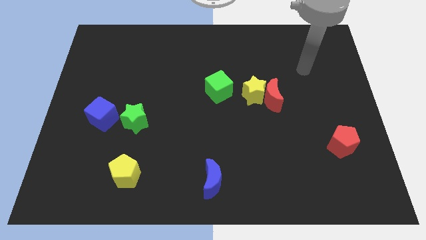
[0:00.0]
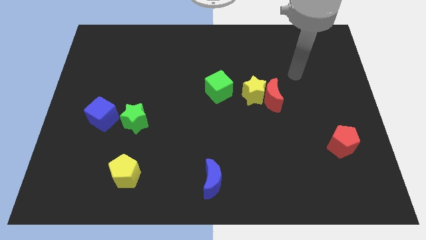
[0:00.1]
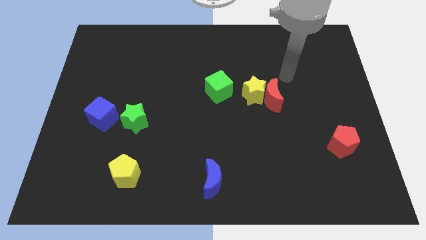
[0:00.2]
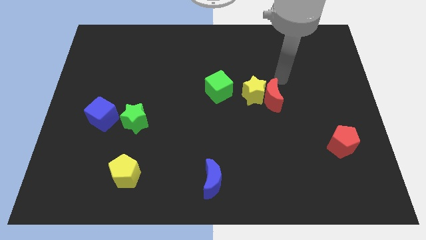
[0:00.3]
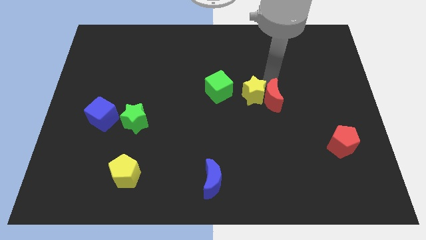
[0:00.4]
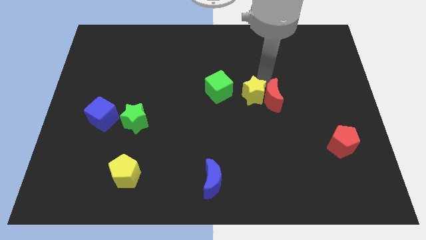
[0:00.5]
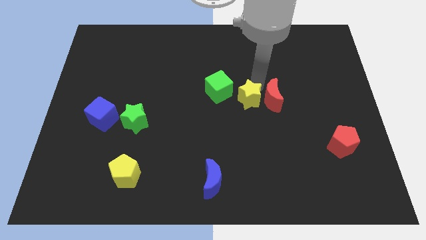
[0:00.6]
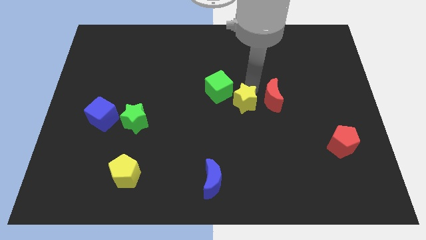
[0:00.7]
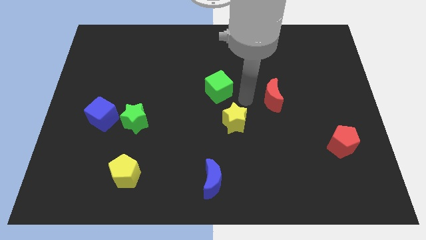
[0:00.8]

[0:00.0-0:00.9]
separate the red moon from the yellow star

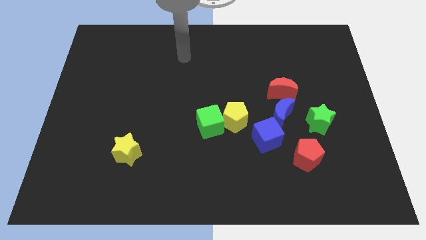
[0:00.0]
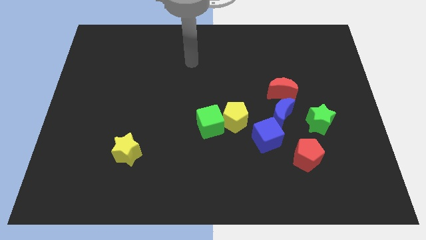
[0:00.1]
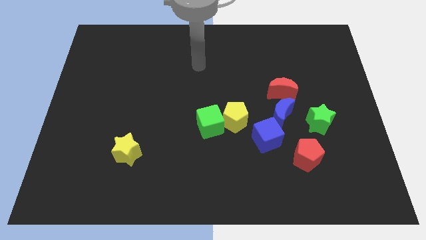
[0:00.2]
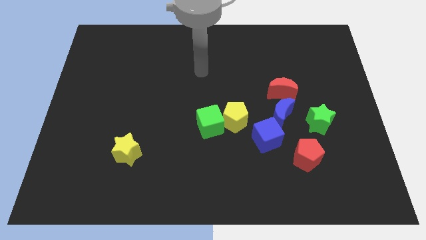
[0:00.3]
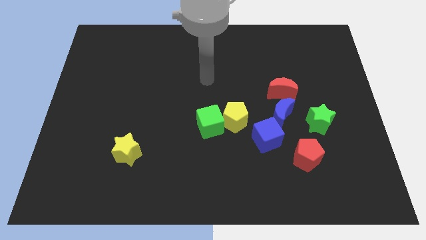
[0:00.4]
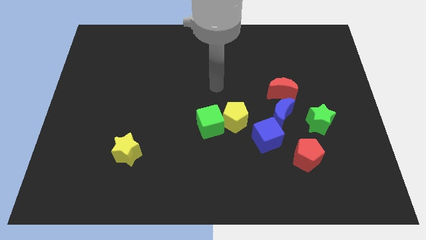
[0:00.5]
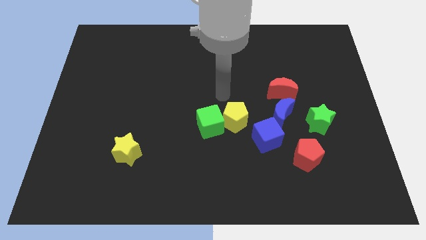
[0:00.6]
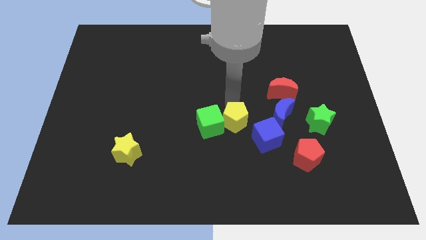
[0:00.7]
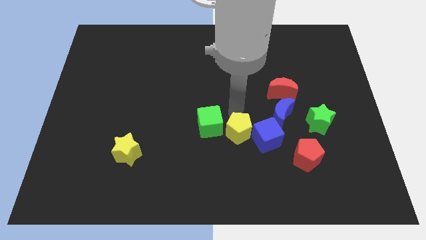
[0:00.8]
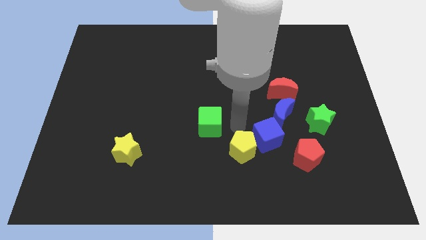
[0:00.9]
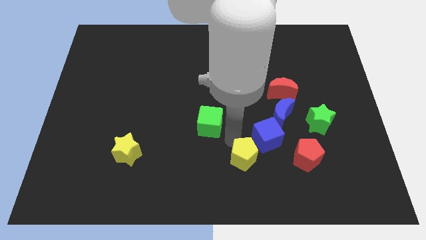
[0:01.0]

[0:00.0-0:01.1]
separate the green cube from the yellow pentagon

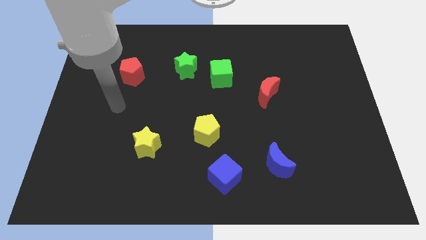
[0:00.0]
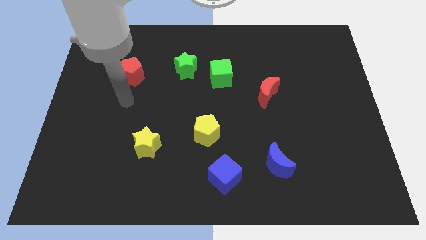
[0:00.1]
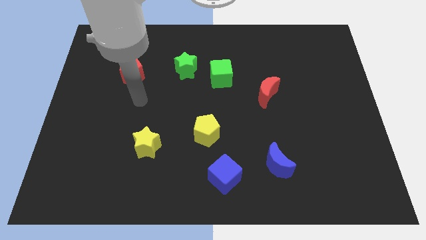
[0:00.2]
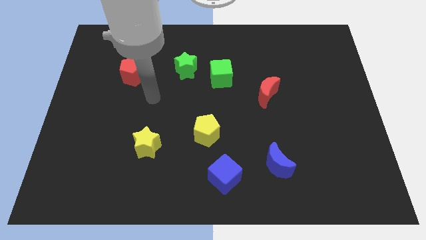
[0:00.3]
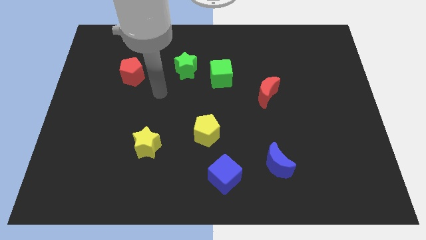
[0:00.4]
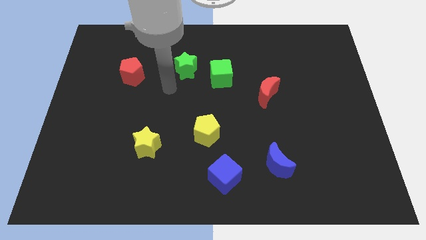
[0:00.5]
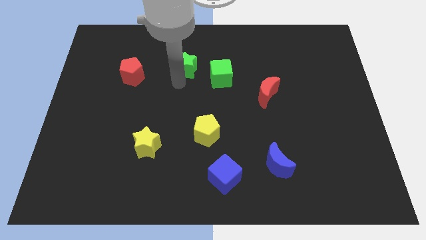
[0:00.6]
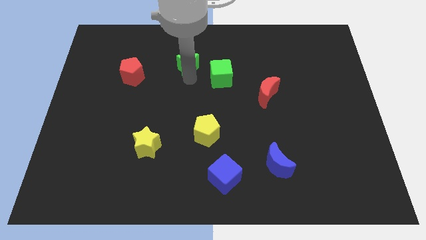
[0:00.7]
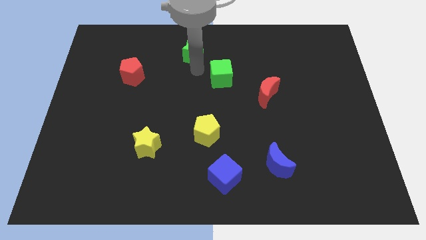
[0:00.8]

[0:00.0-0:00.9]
separate the green cube from the green star

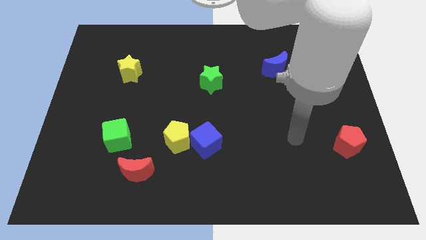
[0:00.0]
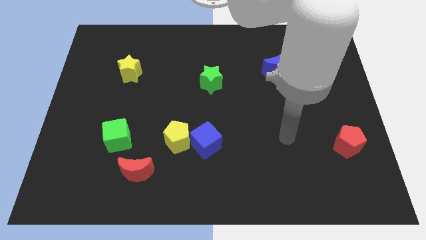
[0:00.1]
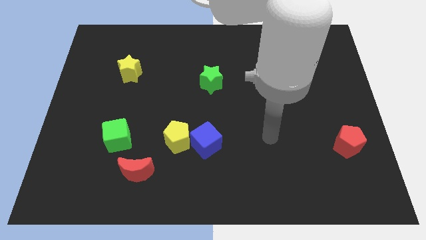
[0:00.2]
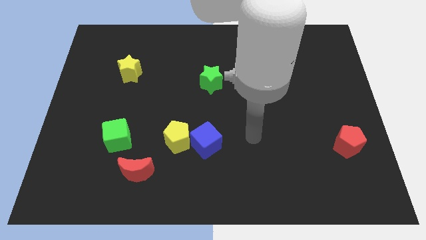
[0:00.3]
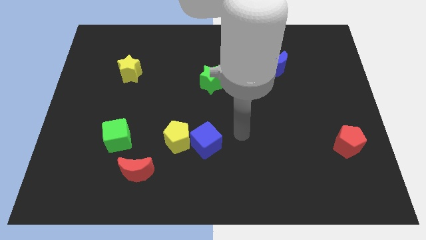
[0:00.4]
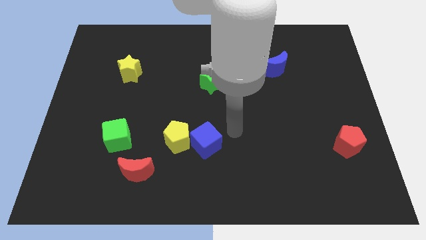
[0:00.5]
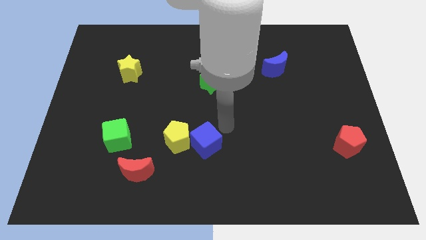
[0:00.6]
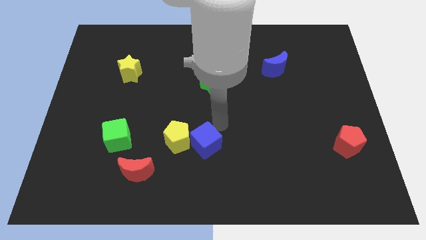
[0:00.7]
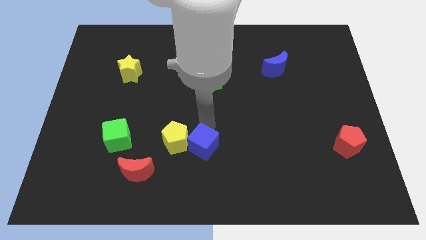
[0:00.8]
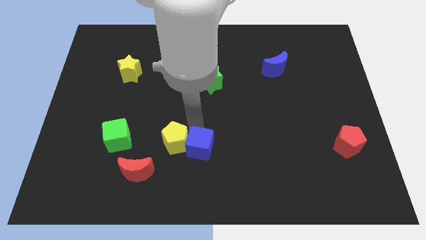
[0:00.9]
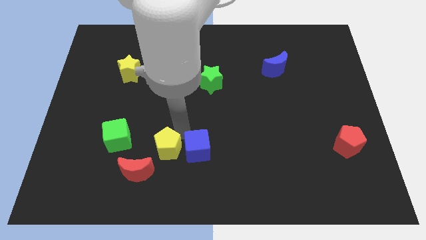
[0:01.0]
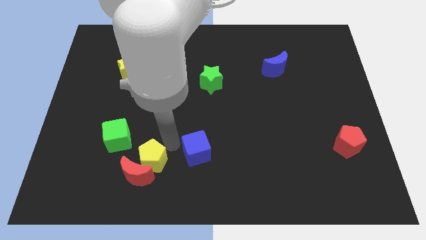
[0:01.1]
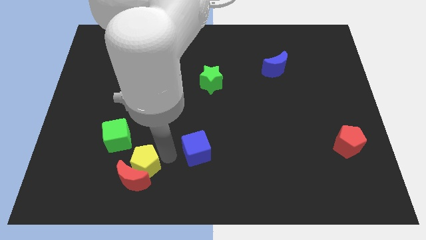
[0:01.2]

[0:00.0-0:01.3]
separate the blue cube from the yellow pentagon

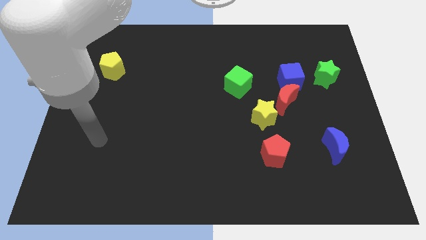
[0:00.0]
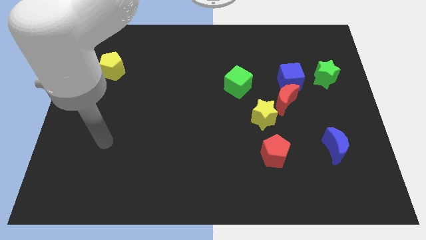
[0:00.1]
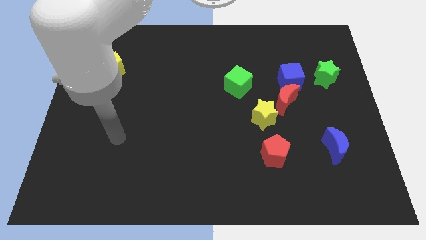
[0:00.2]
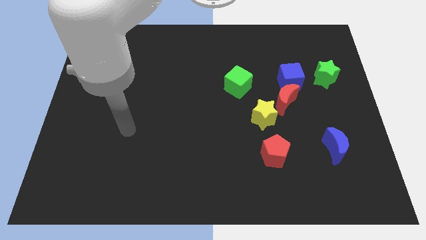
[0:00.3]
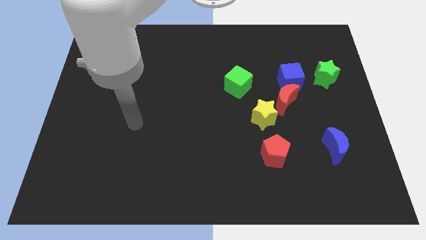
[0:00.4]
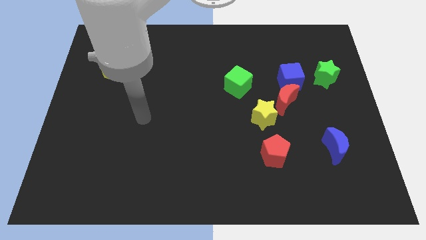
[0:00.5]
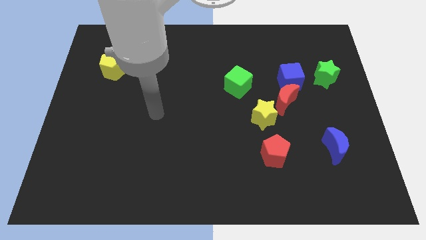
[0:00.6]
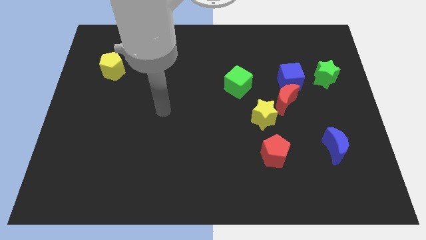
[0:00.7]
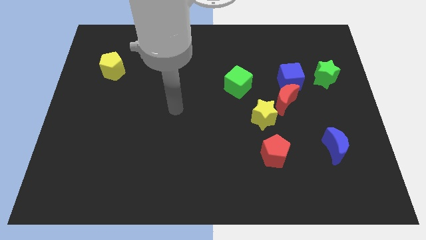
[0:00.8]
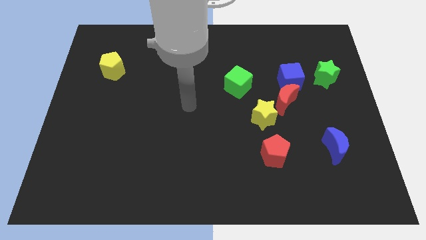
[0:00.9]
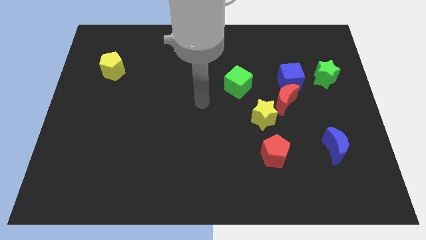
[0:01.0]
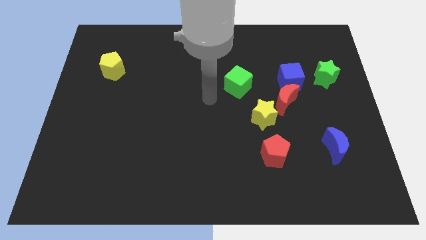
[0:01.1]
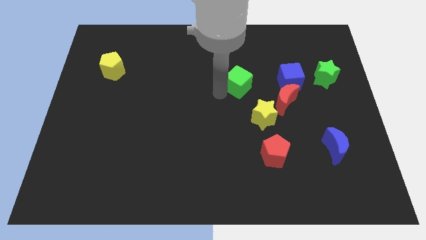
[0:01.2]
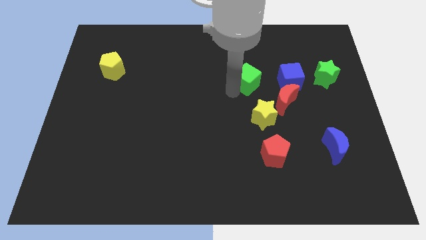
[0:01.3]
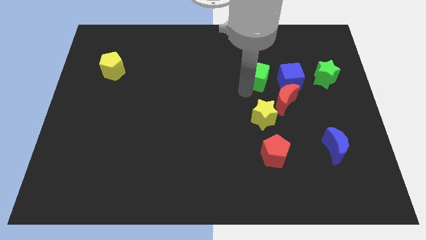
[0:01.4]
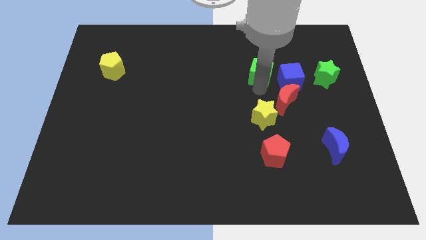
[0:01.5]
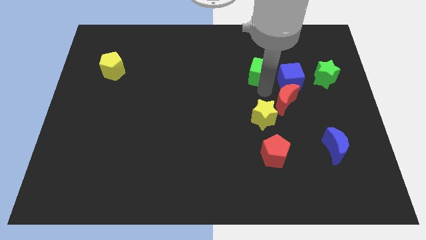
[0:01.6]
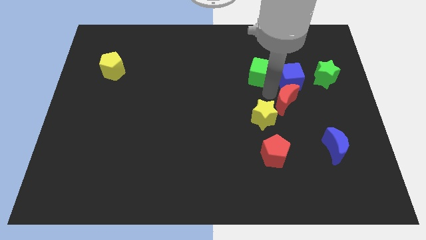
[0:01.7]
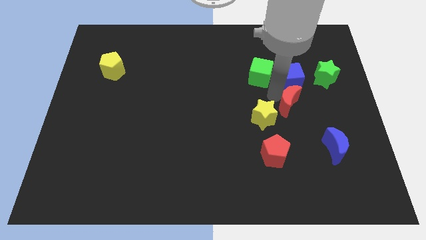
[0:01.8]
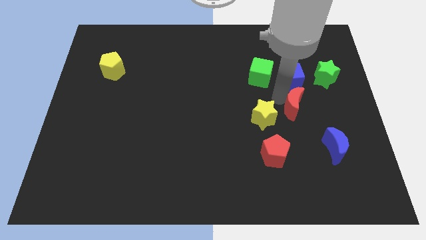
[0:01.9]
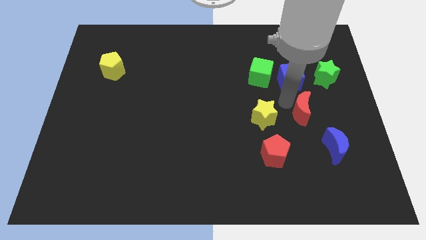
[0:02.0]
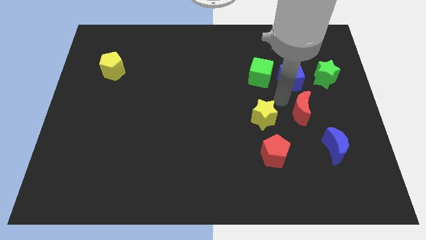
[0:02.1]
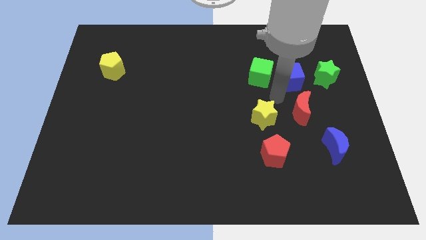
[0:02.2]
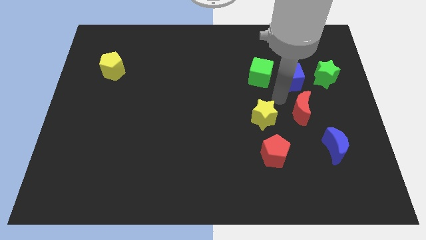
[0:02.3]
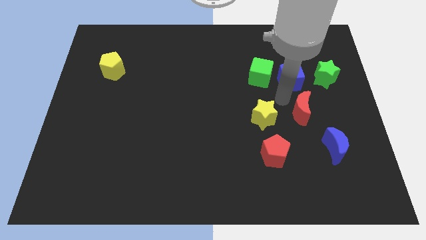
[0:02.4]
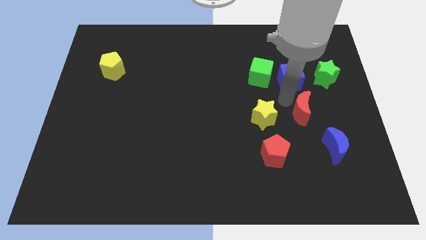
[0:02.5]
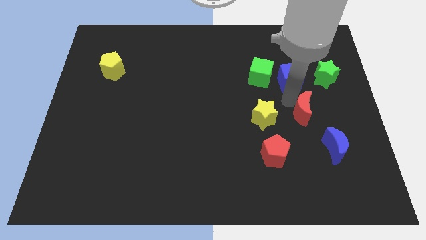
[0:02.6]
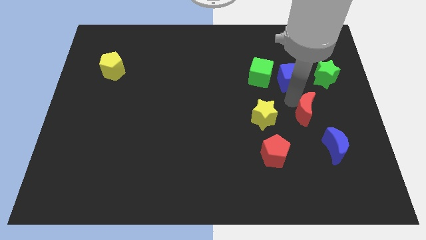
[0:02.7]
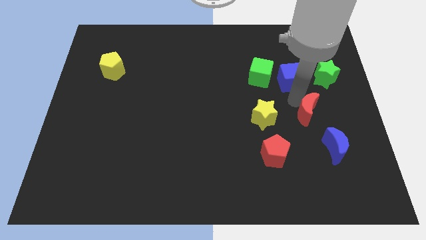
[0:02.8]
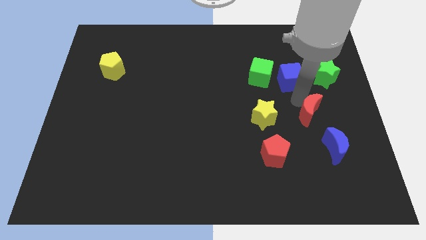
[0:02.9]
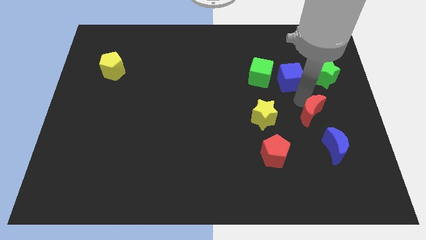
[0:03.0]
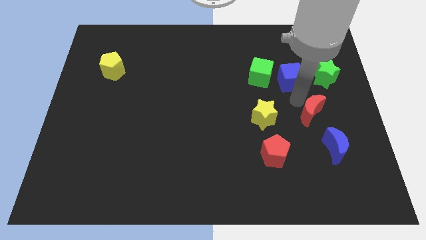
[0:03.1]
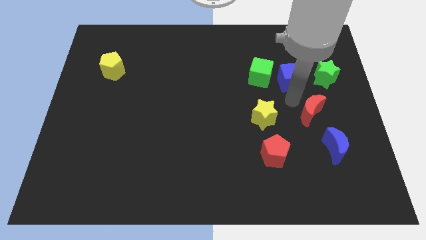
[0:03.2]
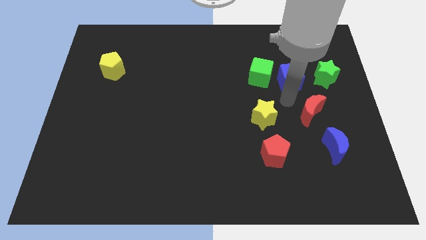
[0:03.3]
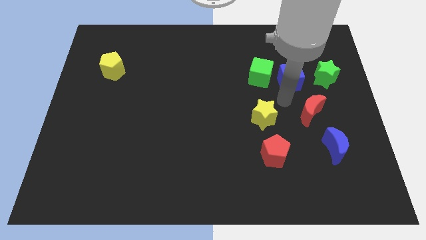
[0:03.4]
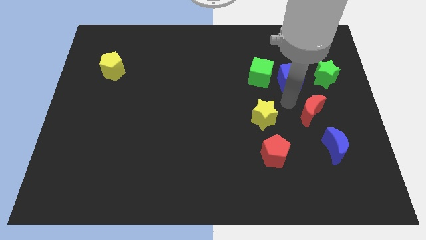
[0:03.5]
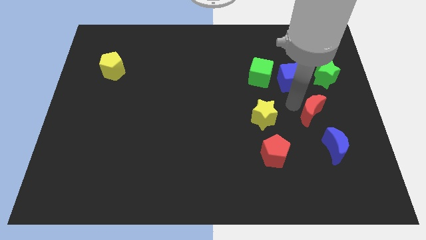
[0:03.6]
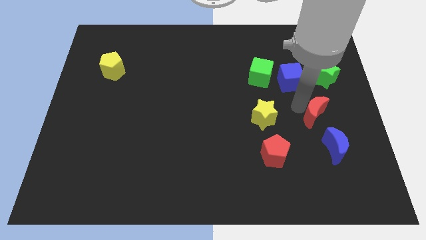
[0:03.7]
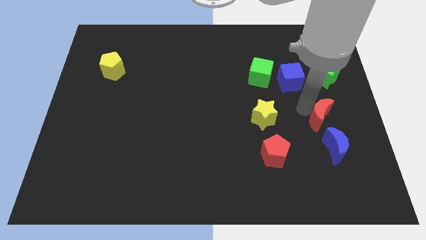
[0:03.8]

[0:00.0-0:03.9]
pull the red moon apart from the blue cube and yellow star

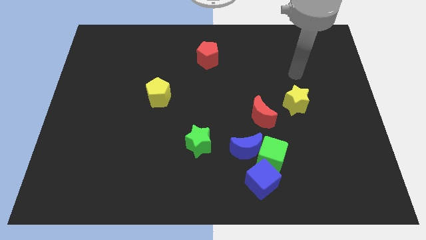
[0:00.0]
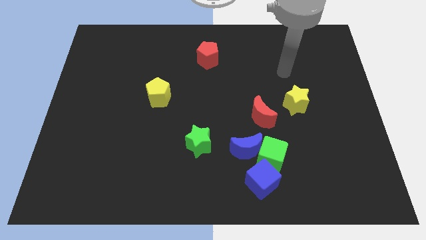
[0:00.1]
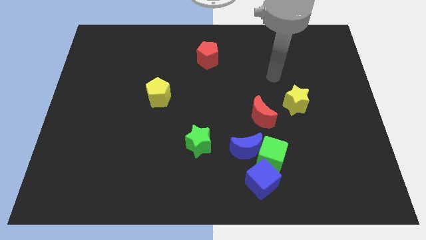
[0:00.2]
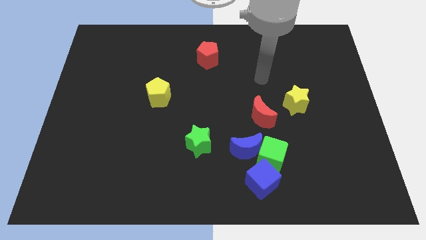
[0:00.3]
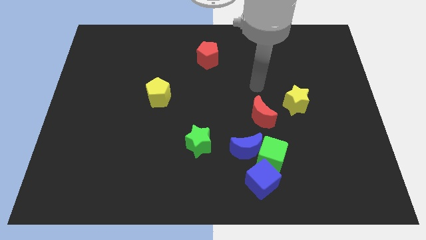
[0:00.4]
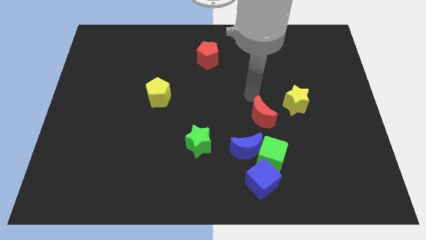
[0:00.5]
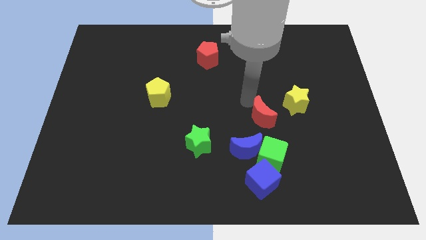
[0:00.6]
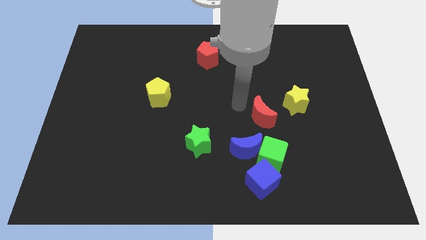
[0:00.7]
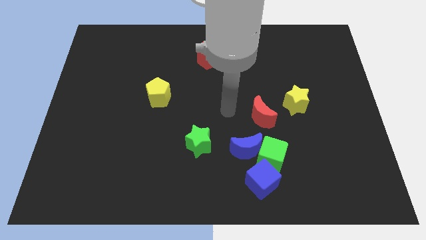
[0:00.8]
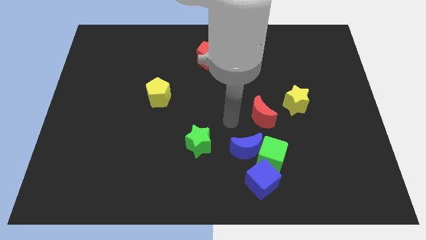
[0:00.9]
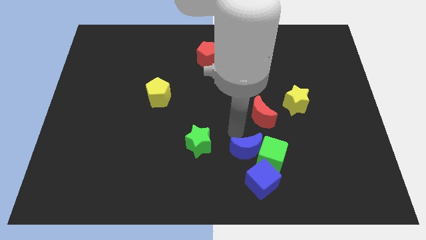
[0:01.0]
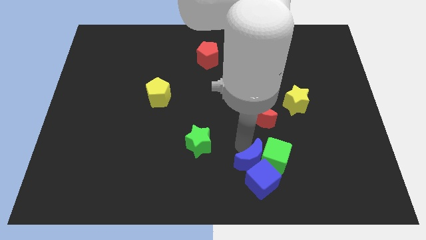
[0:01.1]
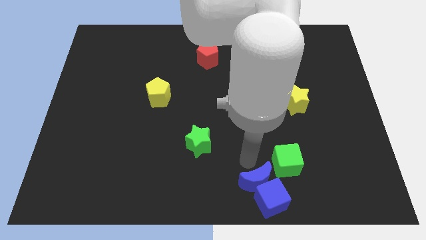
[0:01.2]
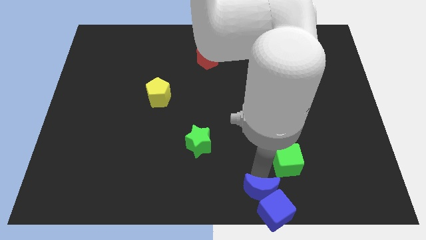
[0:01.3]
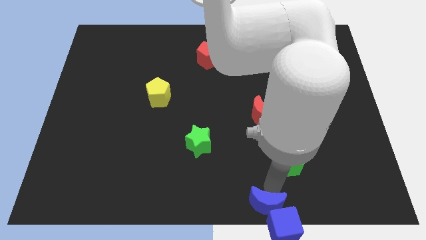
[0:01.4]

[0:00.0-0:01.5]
separate the green cube from the blue moon and blue cube
